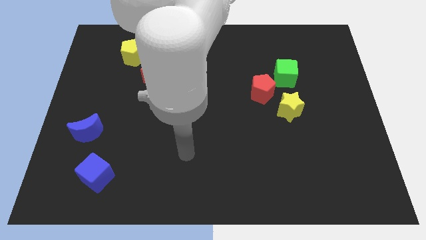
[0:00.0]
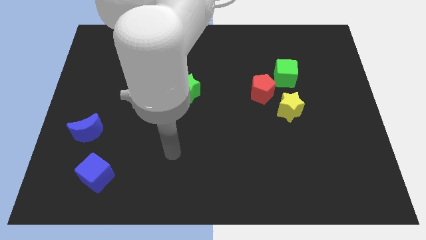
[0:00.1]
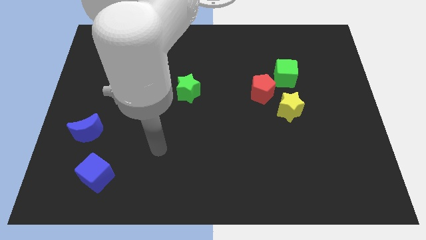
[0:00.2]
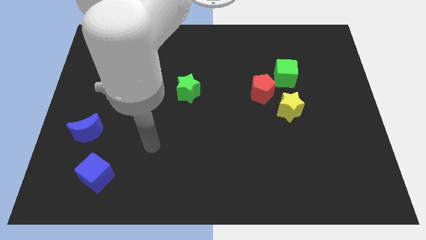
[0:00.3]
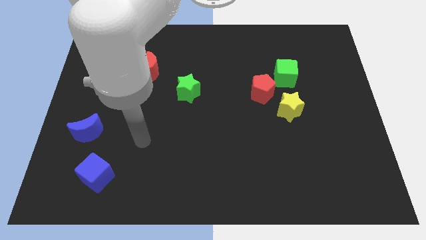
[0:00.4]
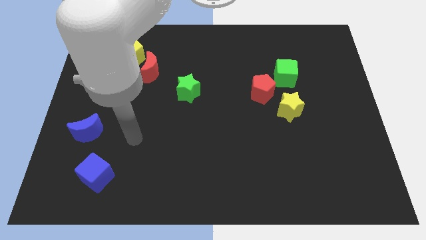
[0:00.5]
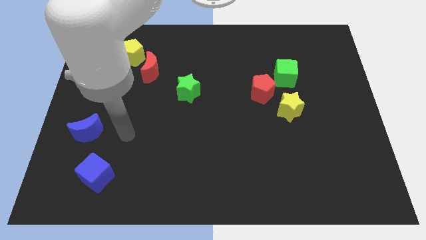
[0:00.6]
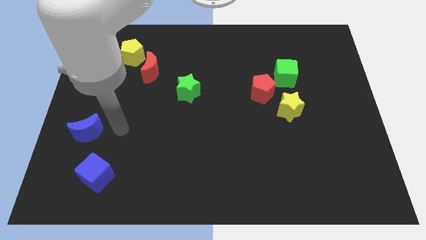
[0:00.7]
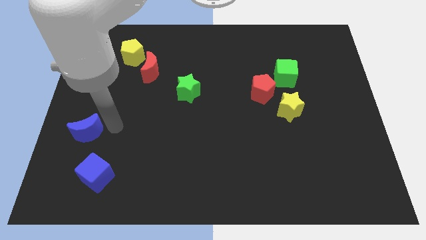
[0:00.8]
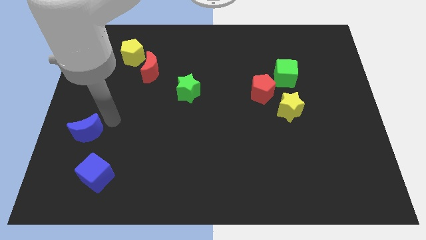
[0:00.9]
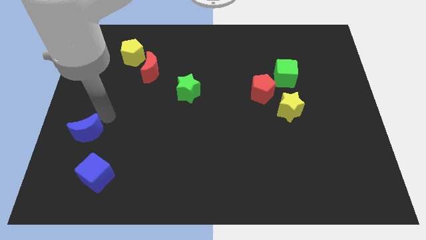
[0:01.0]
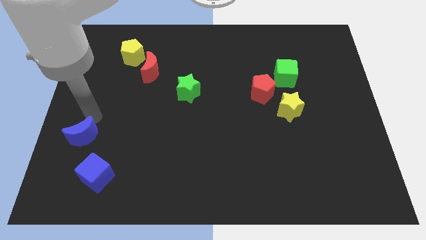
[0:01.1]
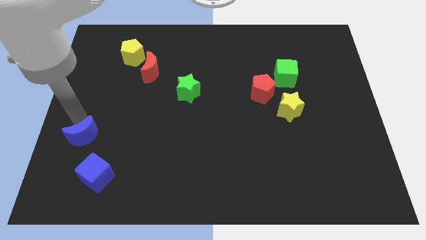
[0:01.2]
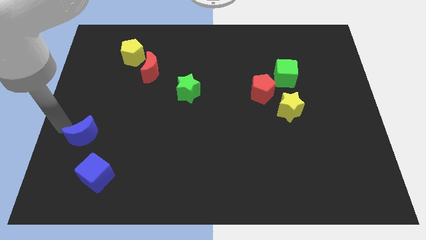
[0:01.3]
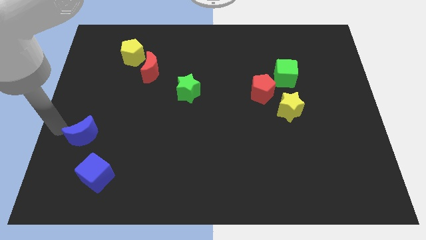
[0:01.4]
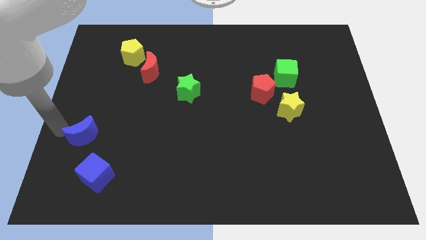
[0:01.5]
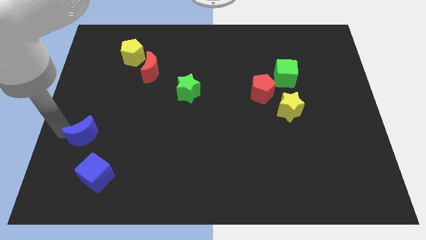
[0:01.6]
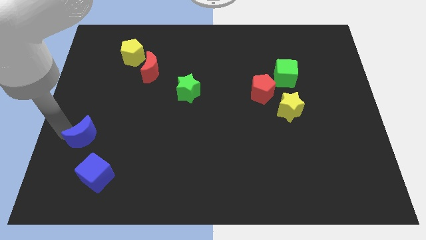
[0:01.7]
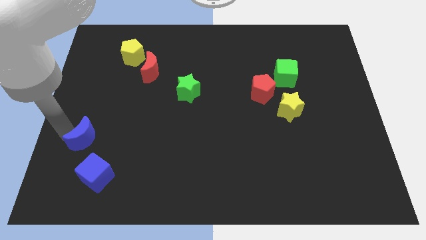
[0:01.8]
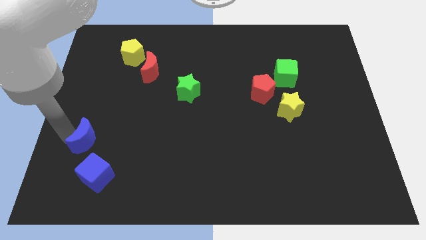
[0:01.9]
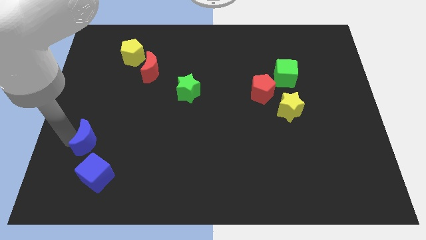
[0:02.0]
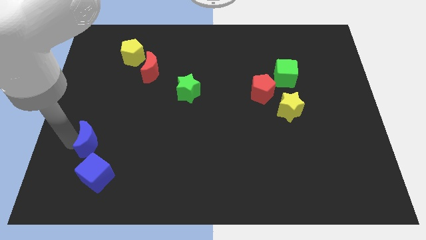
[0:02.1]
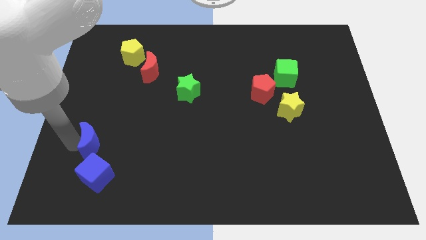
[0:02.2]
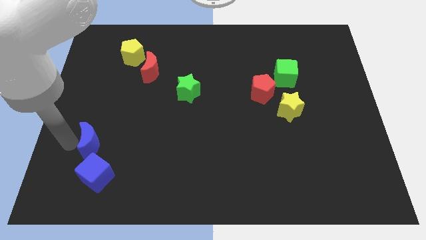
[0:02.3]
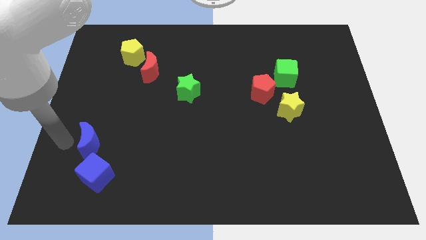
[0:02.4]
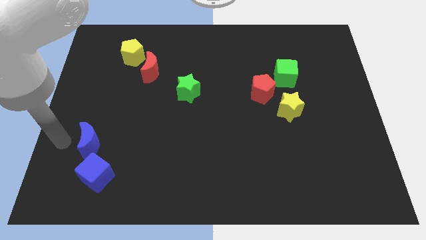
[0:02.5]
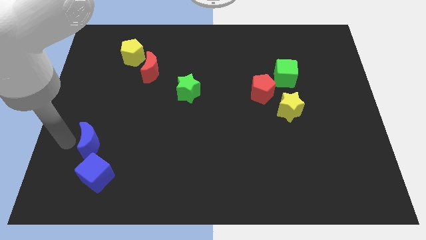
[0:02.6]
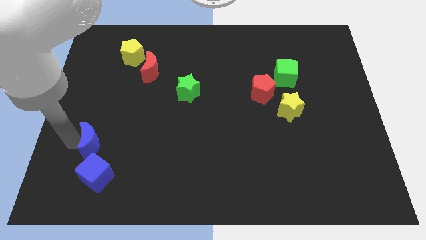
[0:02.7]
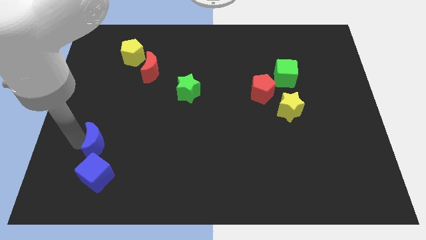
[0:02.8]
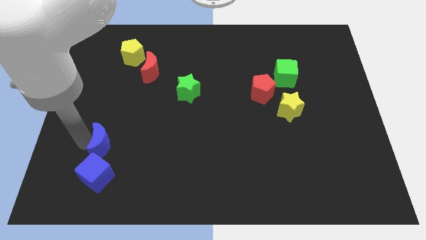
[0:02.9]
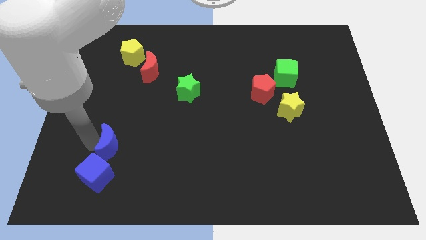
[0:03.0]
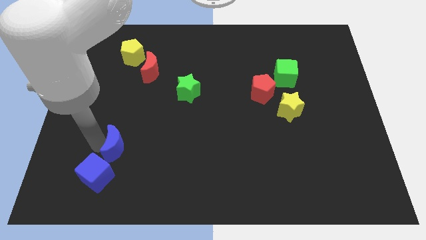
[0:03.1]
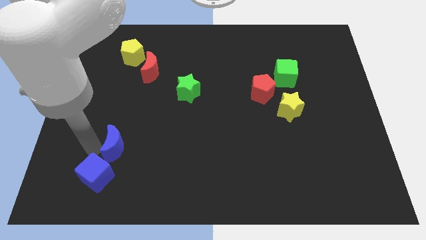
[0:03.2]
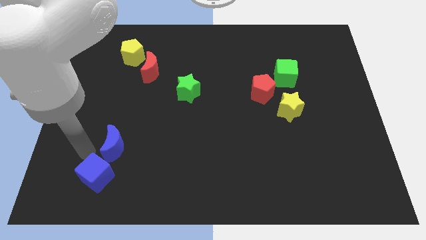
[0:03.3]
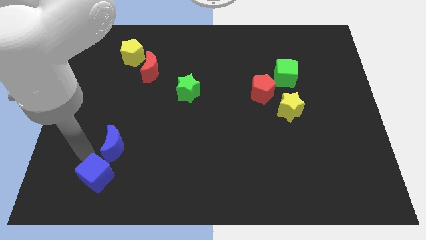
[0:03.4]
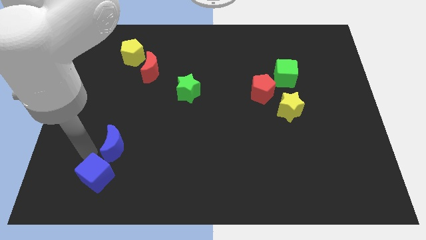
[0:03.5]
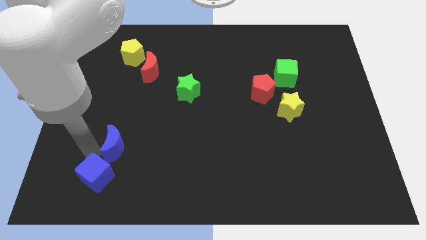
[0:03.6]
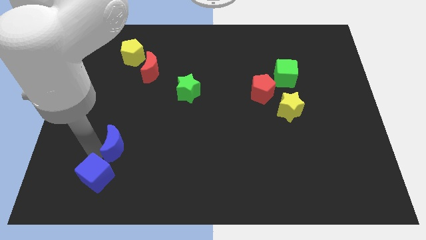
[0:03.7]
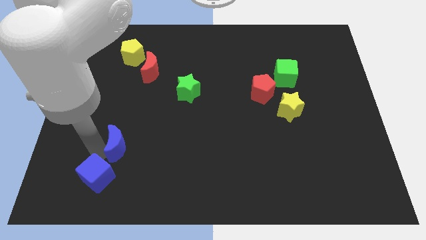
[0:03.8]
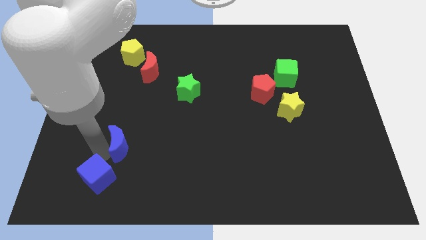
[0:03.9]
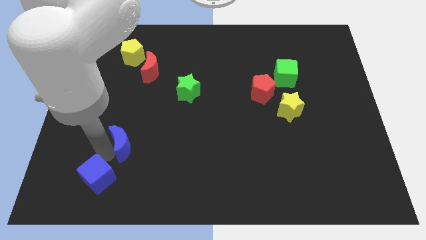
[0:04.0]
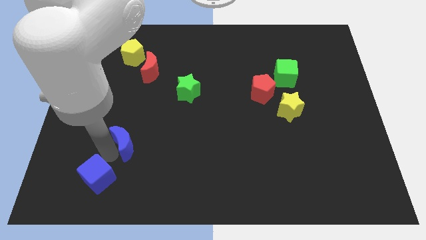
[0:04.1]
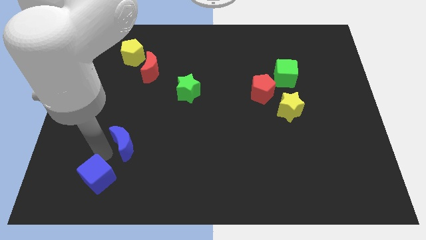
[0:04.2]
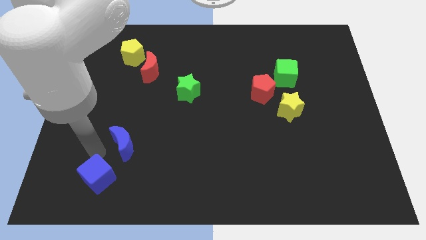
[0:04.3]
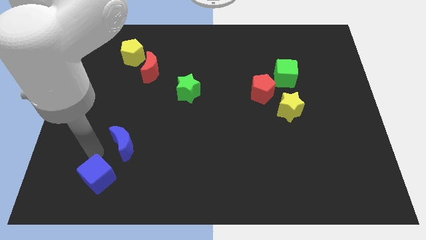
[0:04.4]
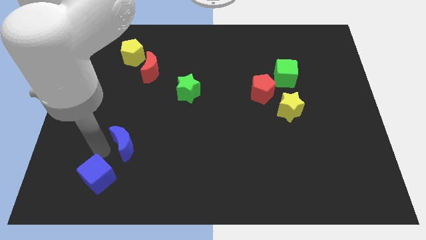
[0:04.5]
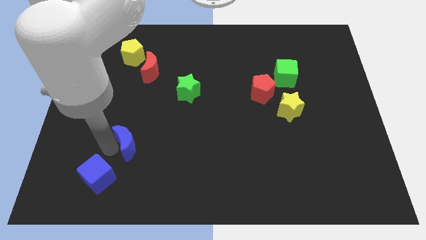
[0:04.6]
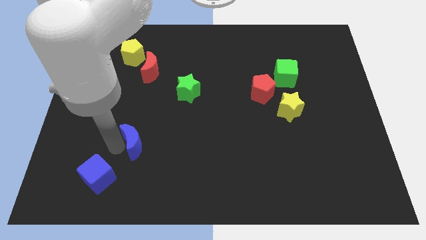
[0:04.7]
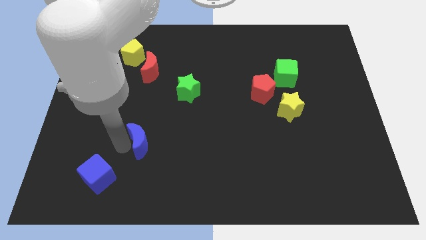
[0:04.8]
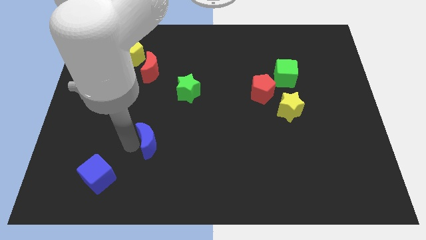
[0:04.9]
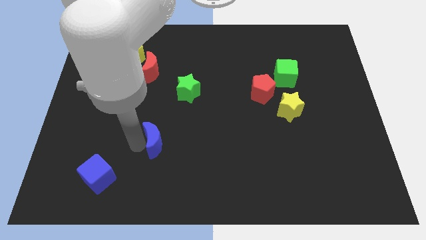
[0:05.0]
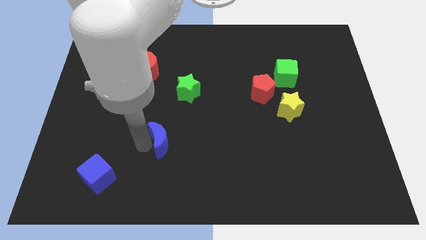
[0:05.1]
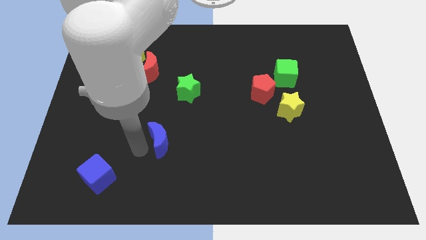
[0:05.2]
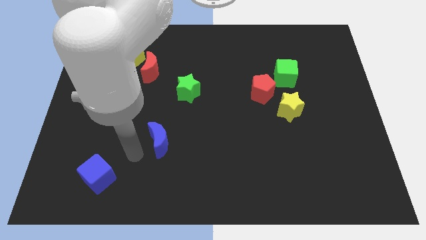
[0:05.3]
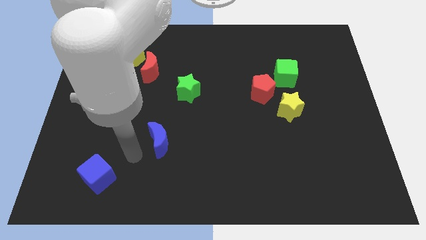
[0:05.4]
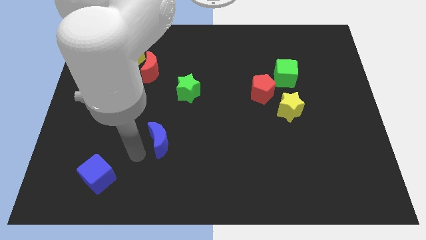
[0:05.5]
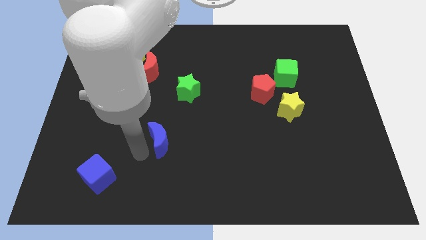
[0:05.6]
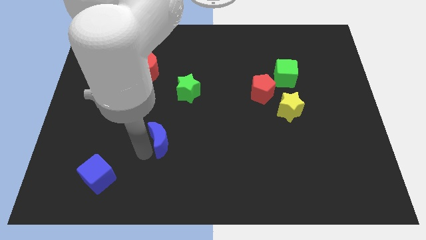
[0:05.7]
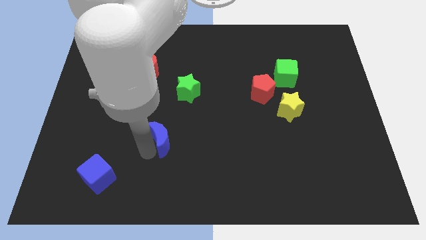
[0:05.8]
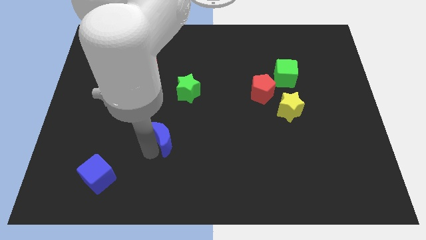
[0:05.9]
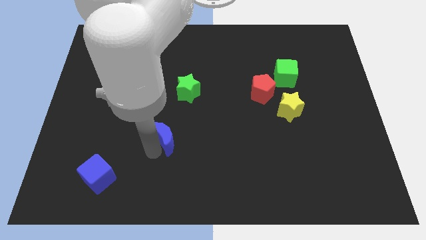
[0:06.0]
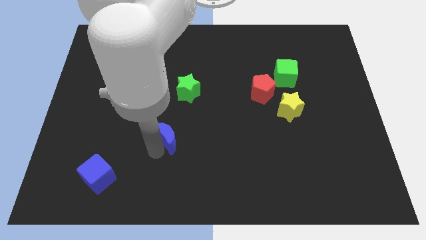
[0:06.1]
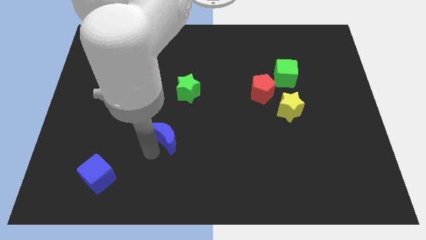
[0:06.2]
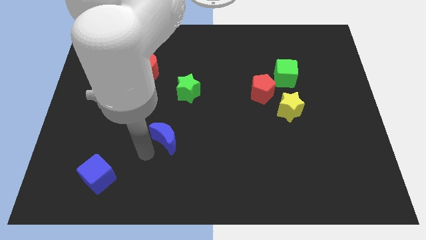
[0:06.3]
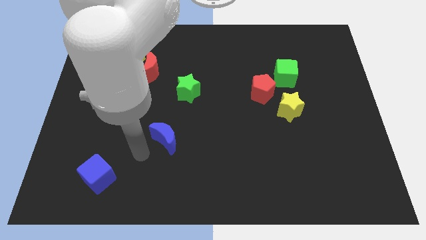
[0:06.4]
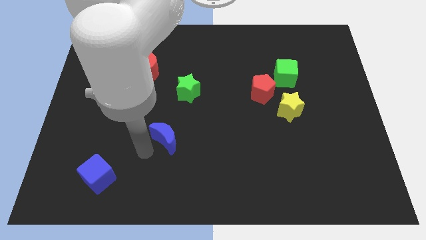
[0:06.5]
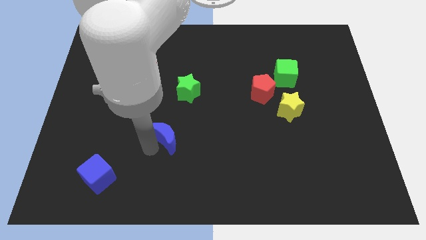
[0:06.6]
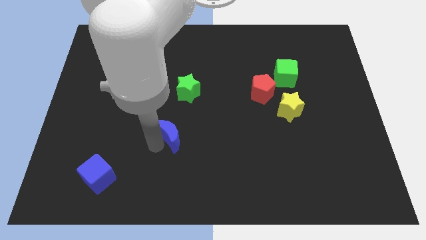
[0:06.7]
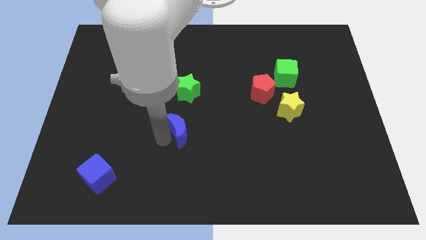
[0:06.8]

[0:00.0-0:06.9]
push the blue moon right

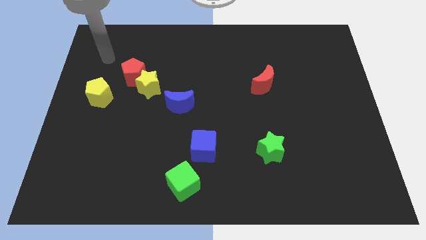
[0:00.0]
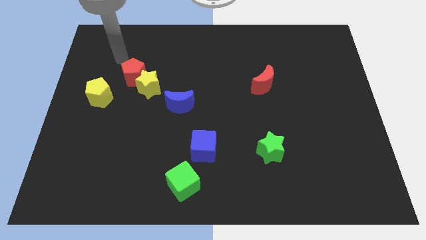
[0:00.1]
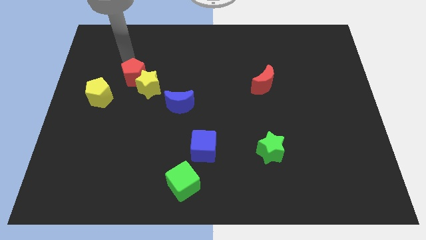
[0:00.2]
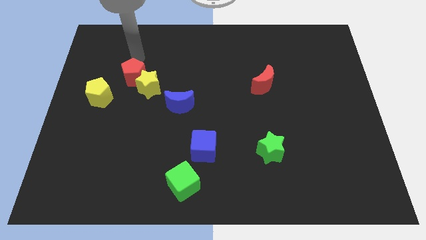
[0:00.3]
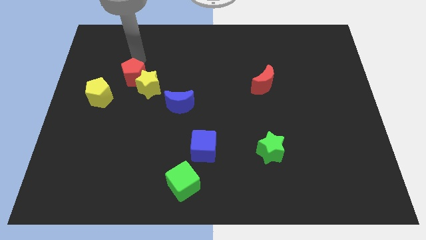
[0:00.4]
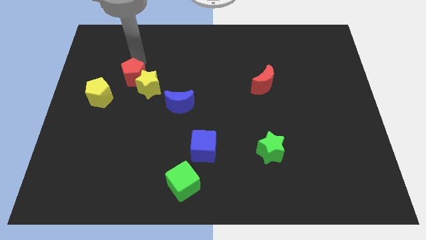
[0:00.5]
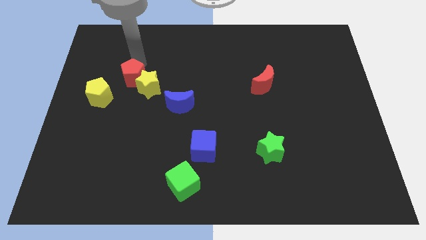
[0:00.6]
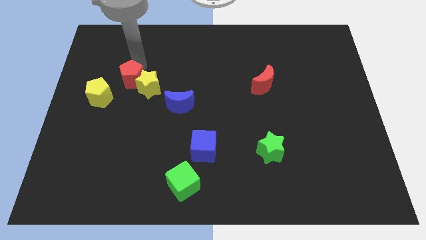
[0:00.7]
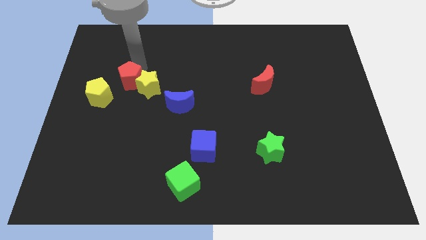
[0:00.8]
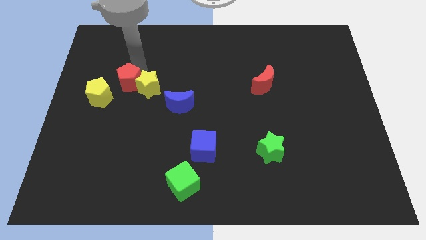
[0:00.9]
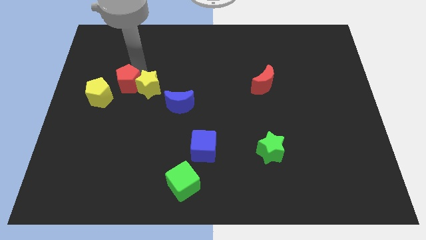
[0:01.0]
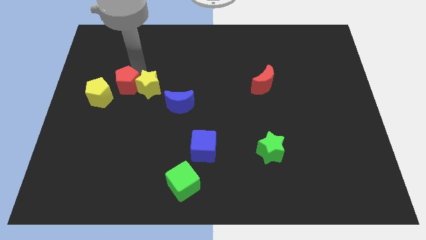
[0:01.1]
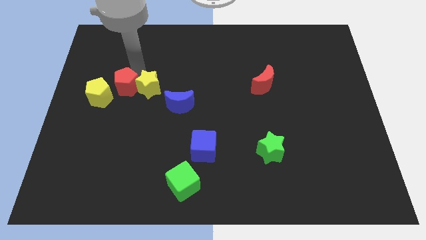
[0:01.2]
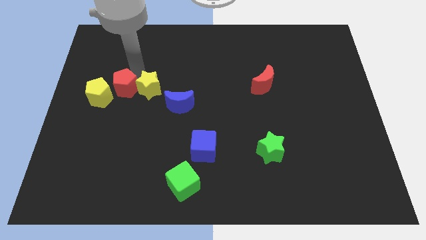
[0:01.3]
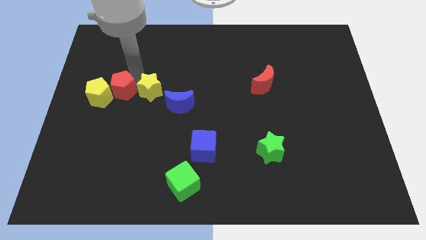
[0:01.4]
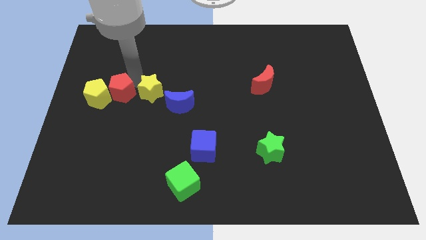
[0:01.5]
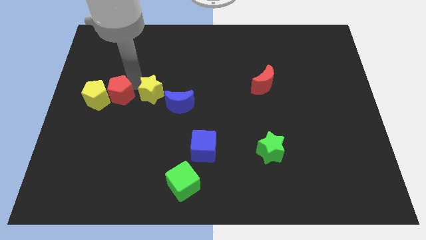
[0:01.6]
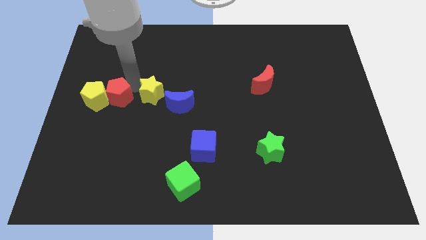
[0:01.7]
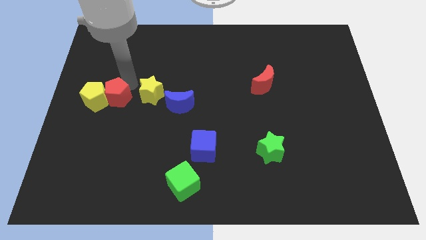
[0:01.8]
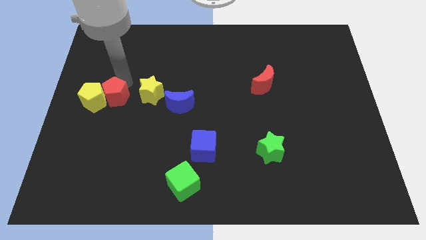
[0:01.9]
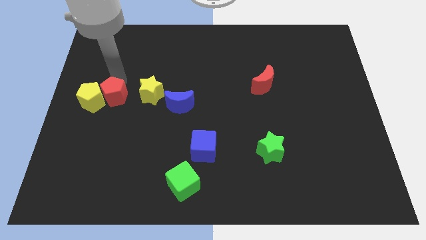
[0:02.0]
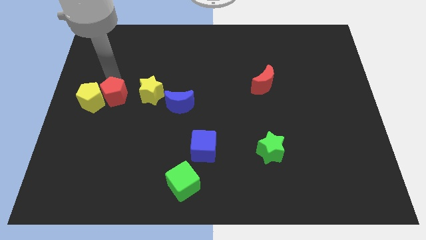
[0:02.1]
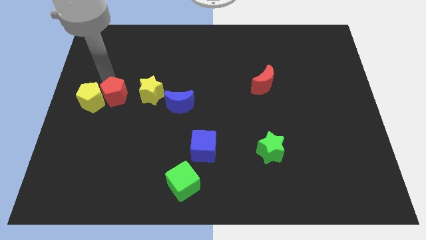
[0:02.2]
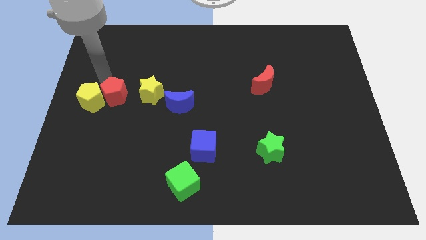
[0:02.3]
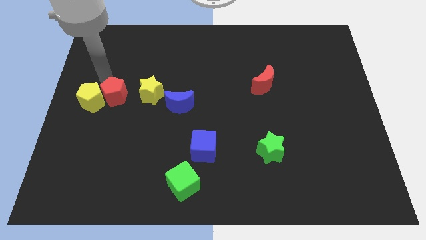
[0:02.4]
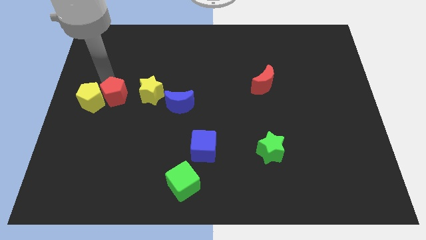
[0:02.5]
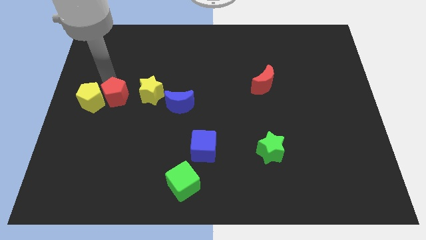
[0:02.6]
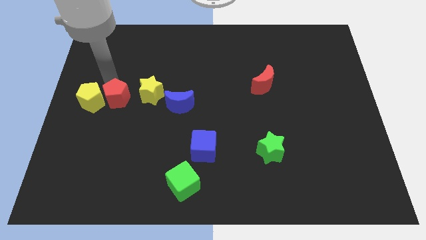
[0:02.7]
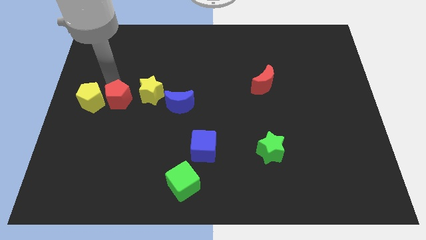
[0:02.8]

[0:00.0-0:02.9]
move the red pentagon down somewhat
